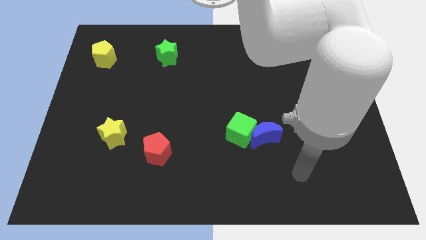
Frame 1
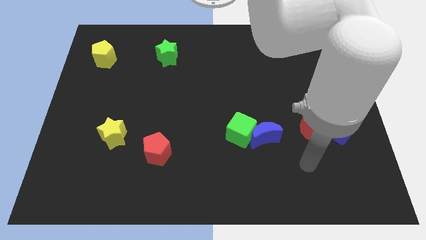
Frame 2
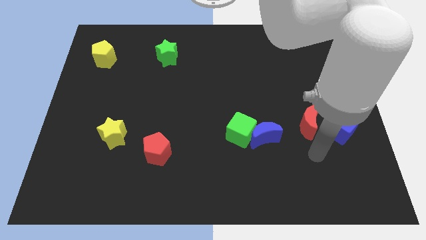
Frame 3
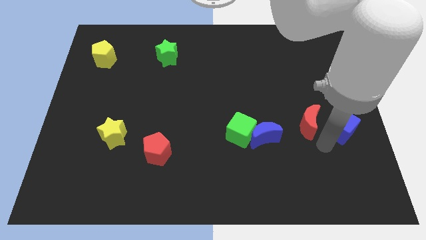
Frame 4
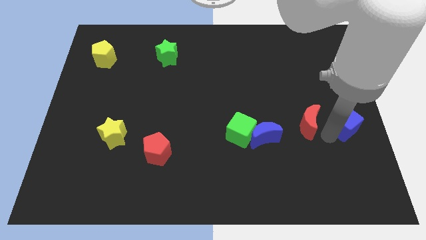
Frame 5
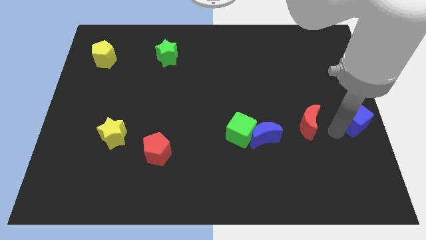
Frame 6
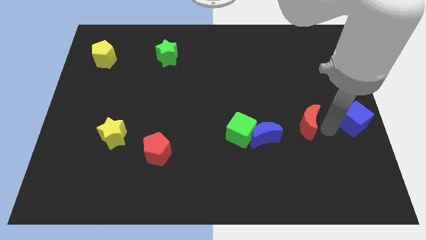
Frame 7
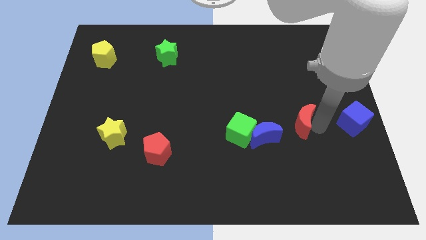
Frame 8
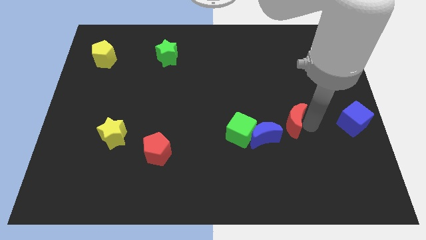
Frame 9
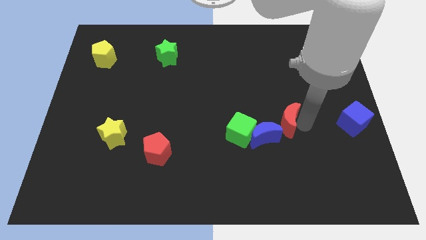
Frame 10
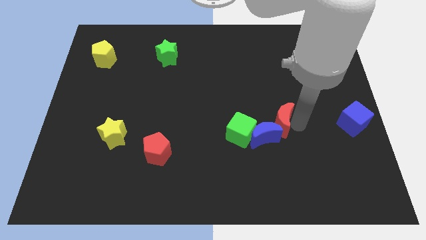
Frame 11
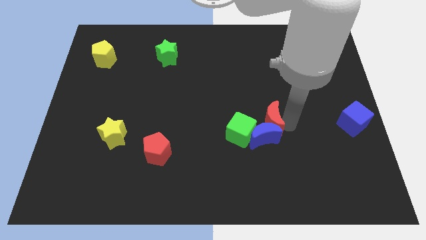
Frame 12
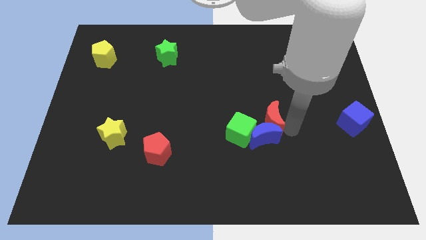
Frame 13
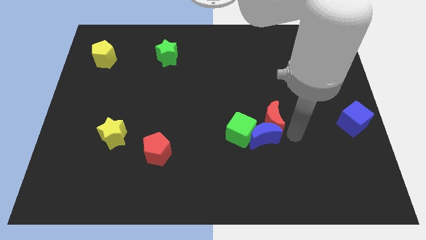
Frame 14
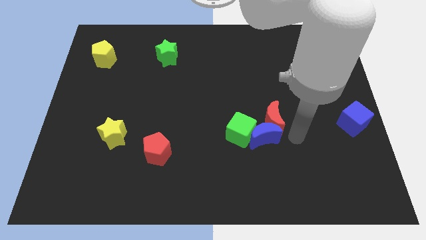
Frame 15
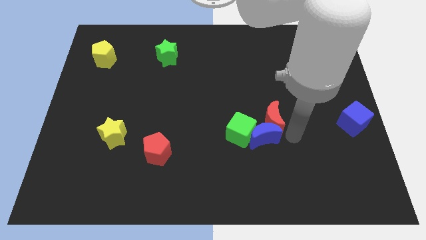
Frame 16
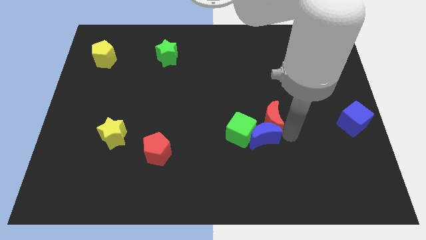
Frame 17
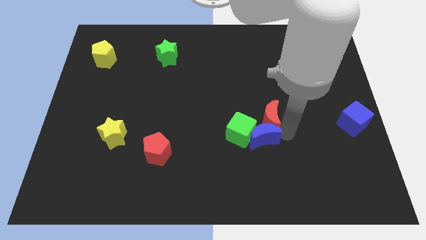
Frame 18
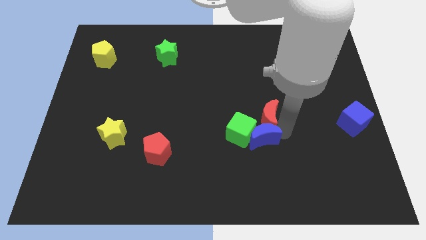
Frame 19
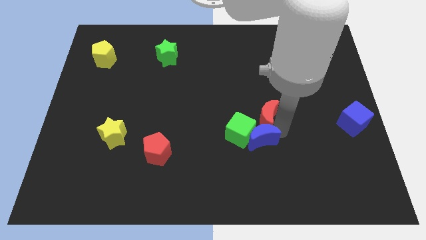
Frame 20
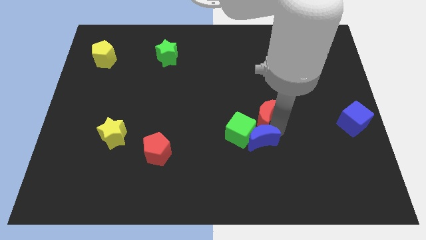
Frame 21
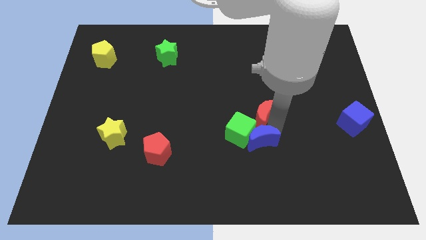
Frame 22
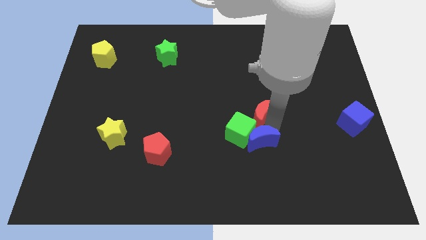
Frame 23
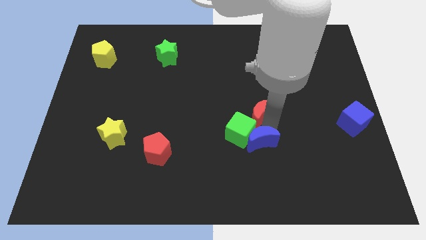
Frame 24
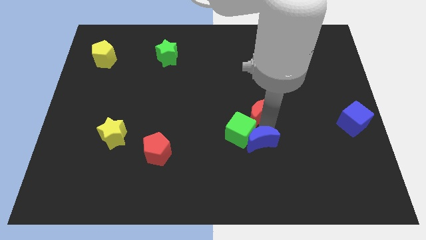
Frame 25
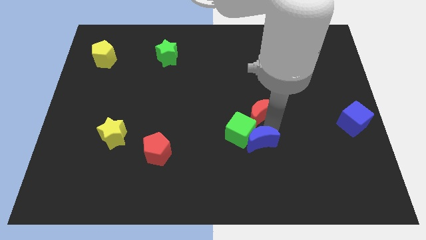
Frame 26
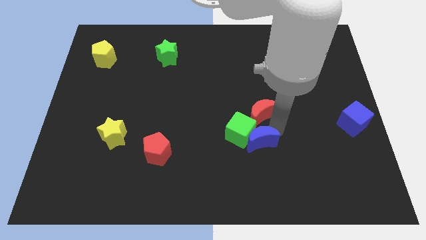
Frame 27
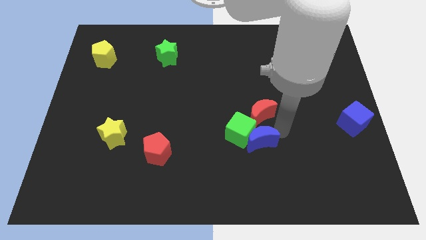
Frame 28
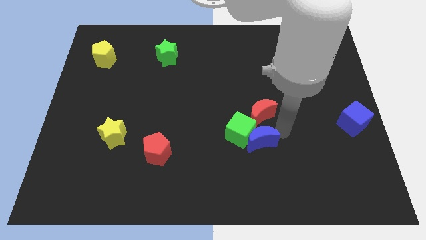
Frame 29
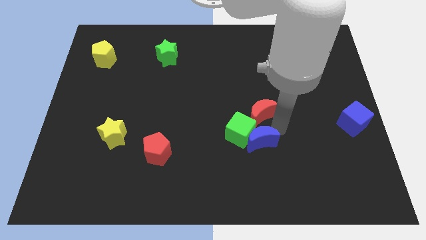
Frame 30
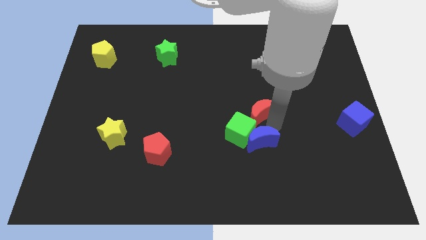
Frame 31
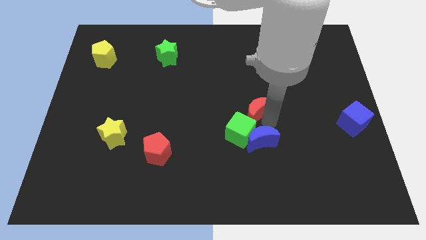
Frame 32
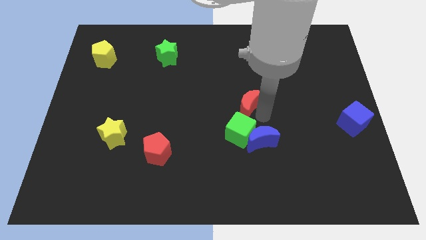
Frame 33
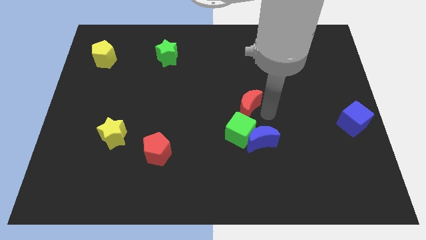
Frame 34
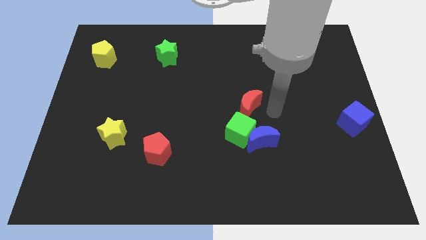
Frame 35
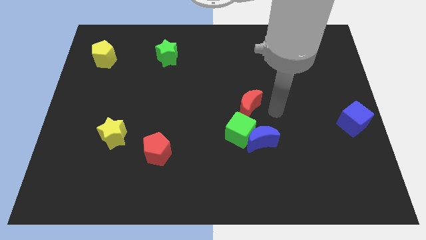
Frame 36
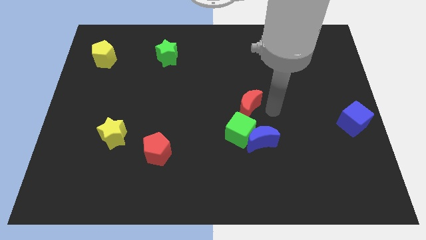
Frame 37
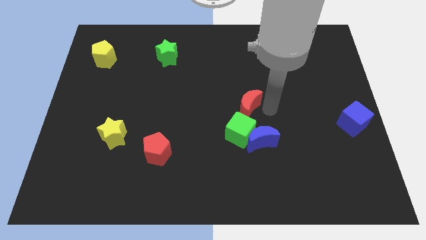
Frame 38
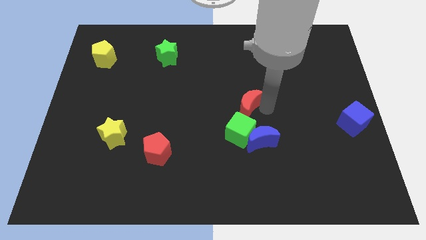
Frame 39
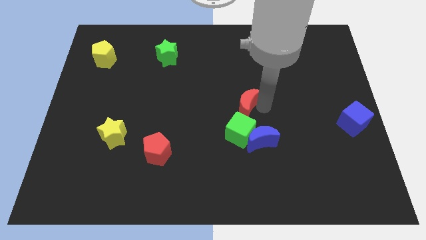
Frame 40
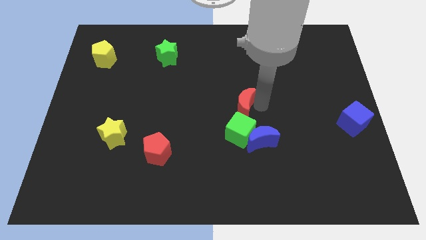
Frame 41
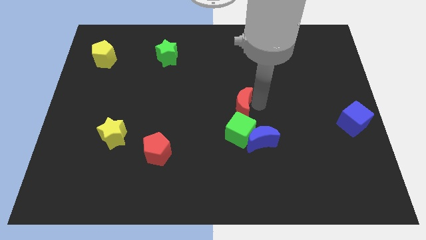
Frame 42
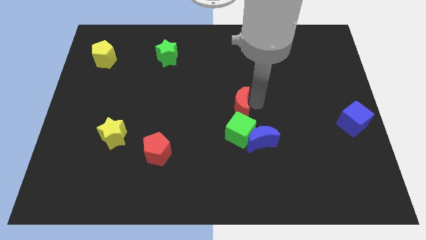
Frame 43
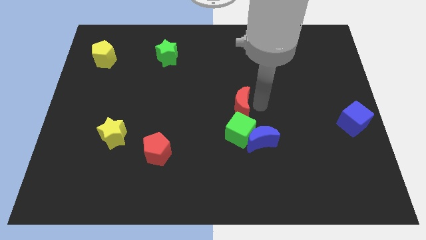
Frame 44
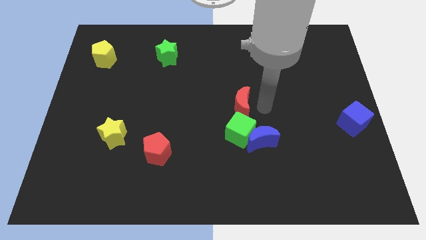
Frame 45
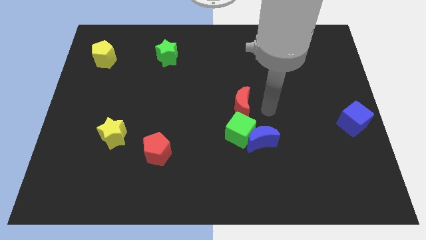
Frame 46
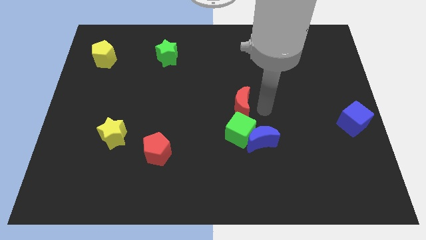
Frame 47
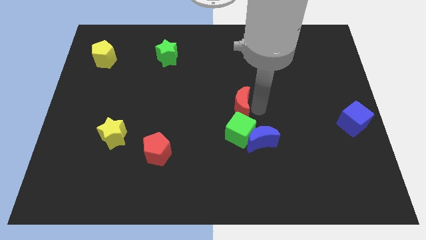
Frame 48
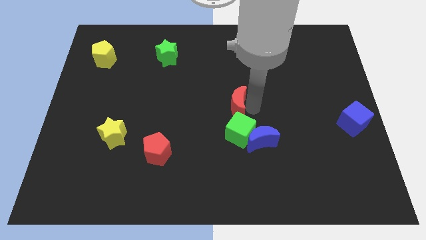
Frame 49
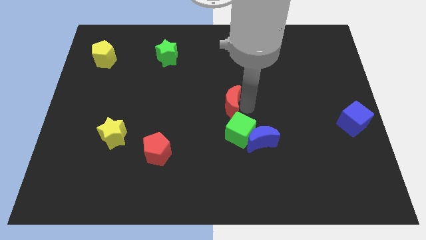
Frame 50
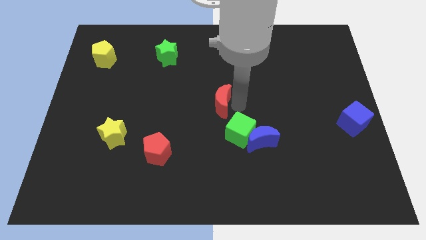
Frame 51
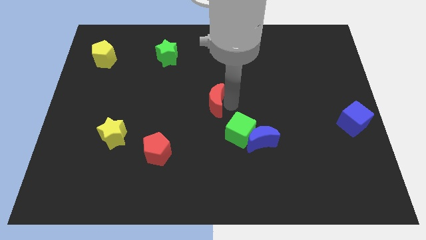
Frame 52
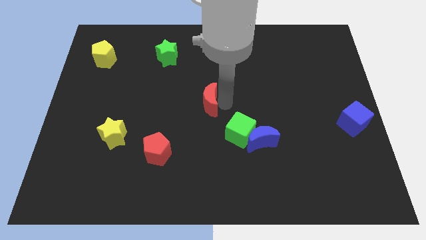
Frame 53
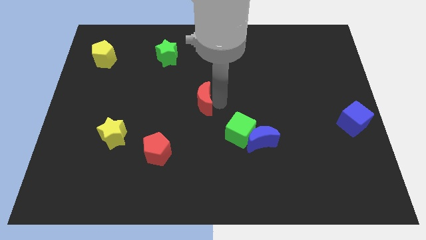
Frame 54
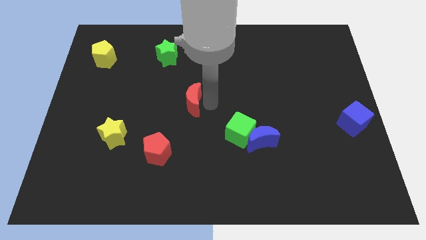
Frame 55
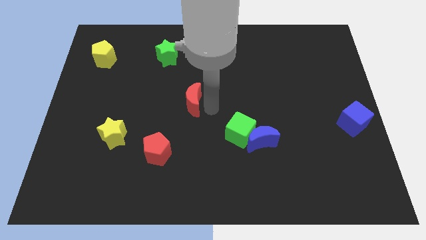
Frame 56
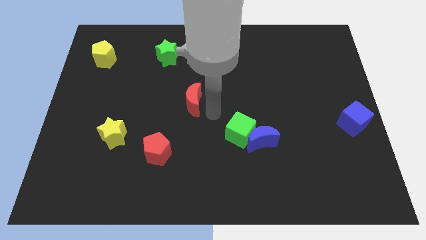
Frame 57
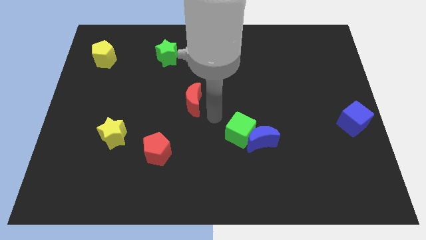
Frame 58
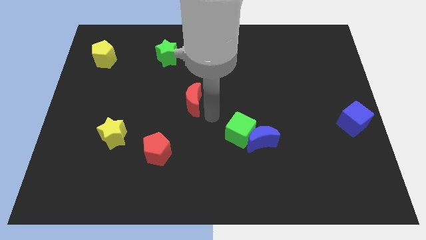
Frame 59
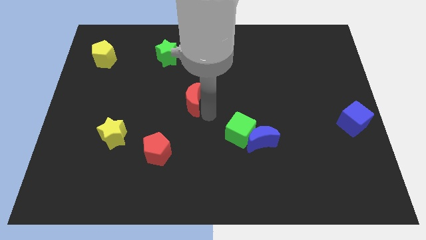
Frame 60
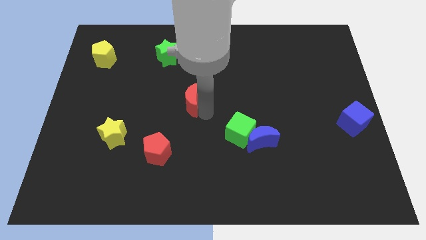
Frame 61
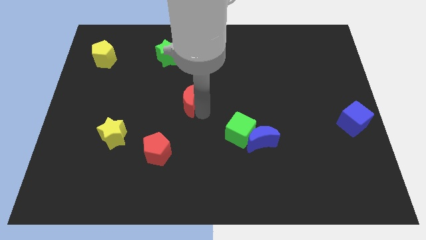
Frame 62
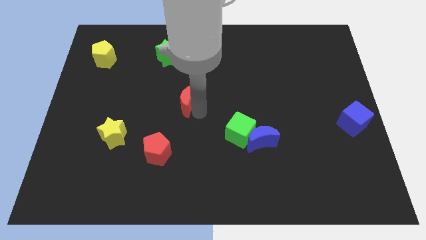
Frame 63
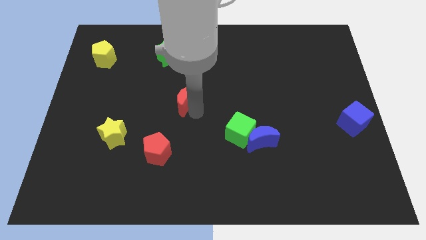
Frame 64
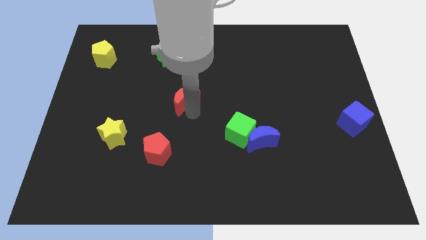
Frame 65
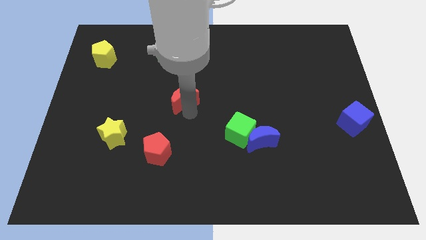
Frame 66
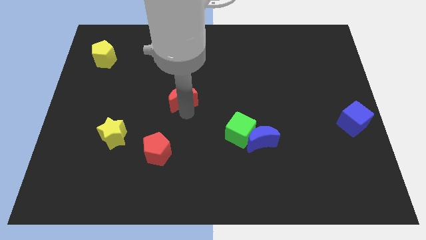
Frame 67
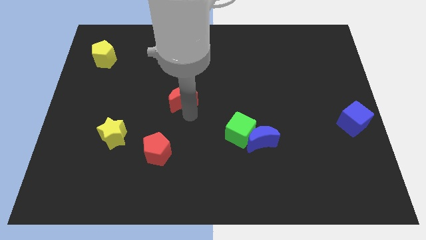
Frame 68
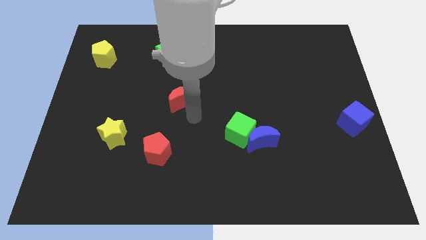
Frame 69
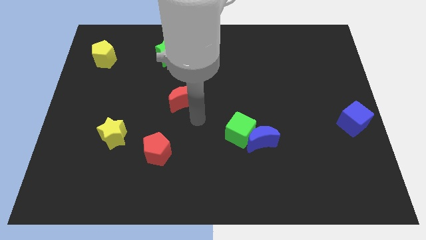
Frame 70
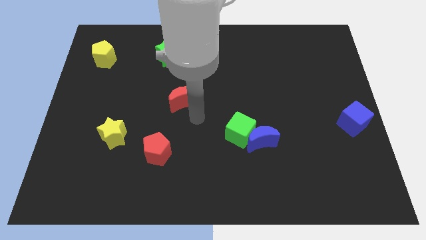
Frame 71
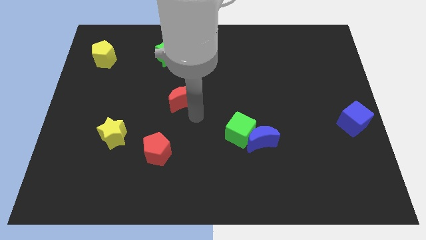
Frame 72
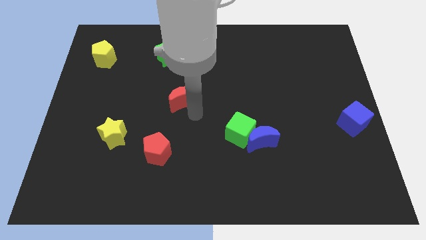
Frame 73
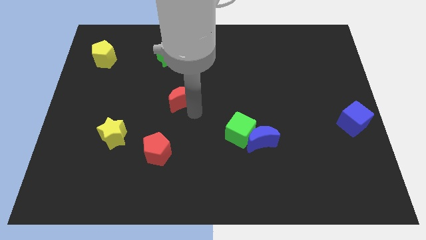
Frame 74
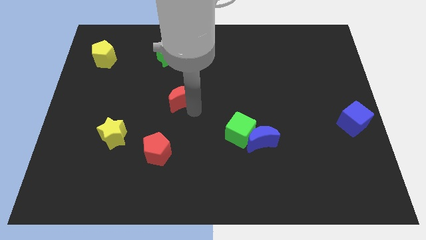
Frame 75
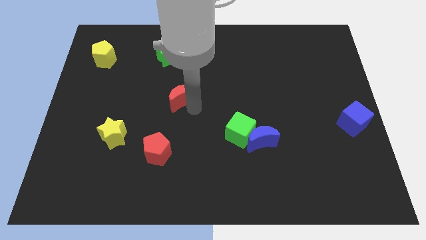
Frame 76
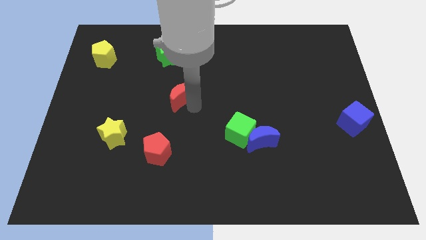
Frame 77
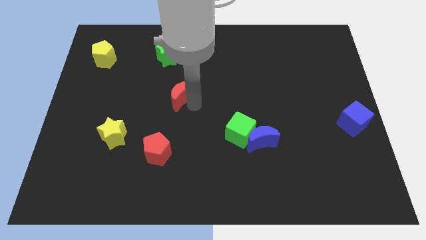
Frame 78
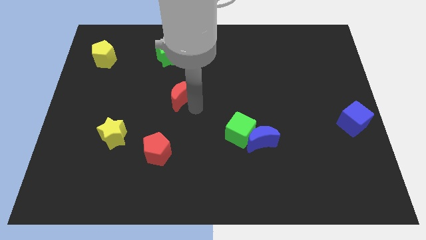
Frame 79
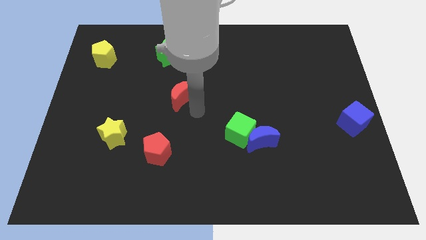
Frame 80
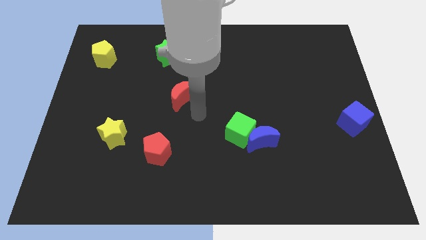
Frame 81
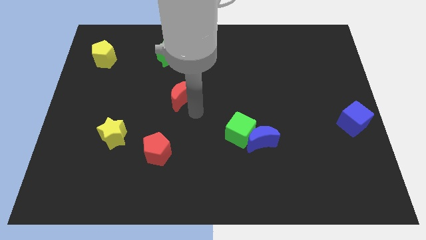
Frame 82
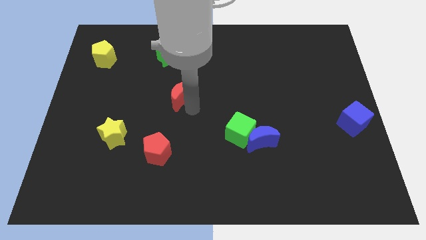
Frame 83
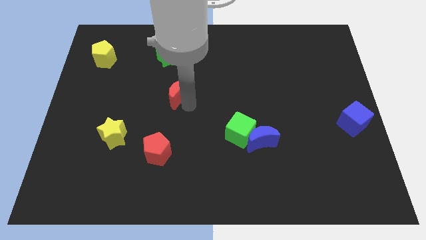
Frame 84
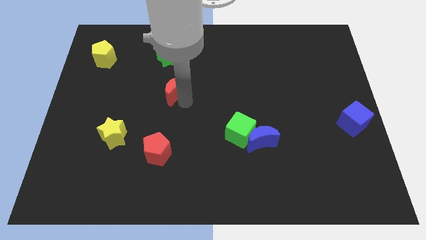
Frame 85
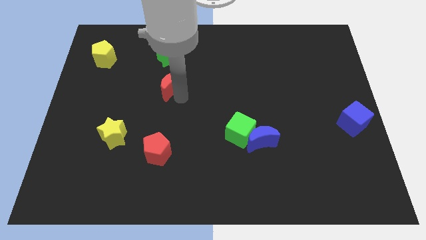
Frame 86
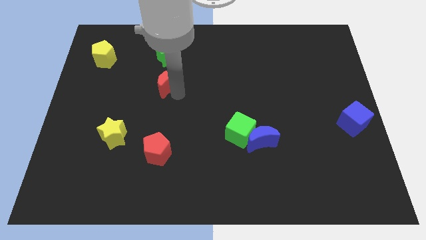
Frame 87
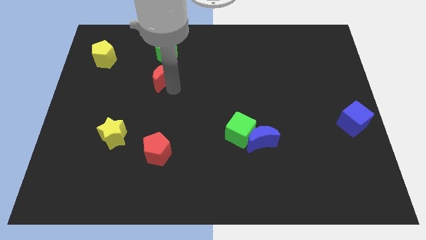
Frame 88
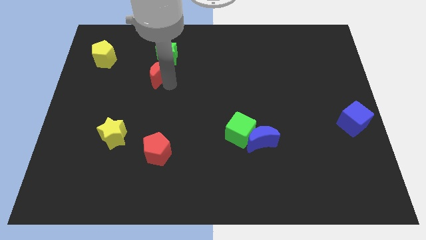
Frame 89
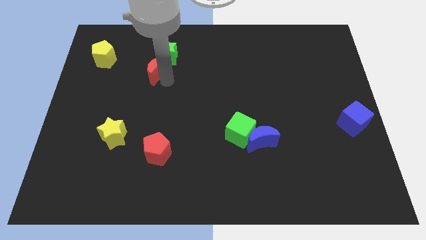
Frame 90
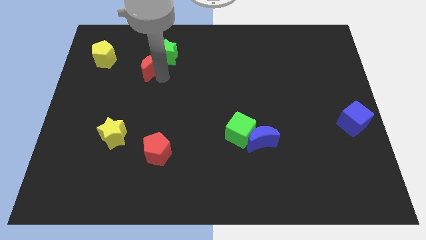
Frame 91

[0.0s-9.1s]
push the red moon to the right of the yellow pentagon
